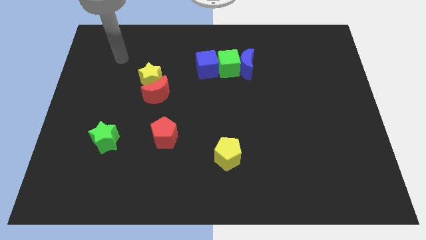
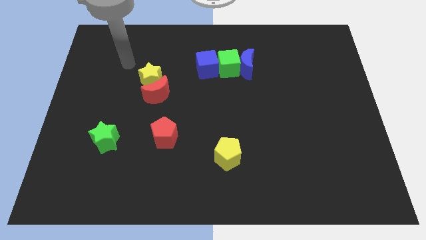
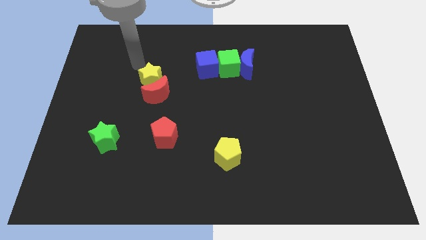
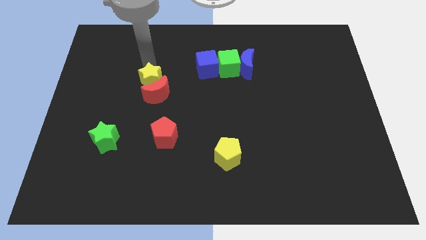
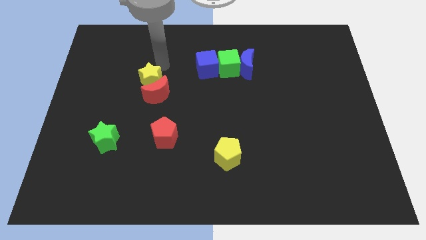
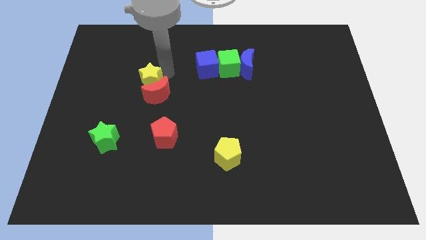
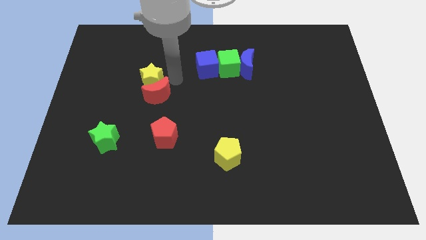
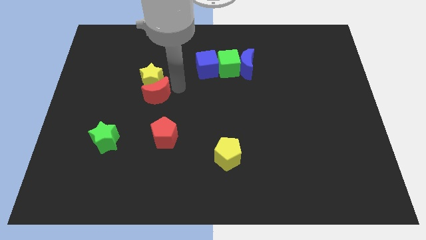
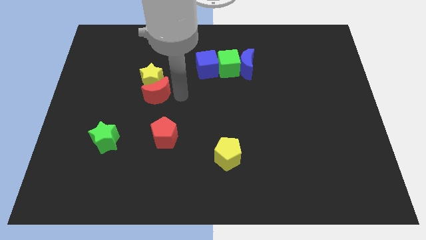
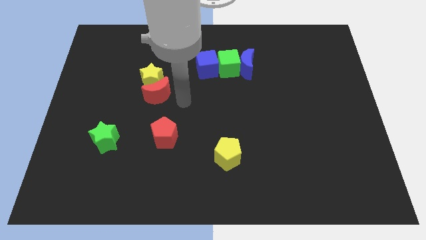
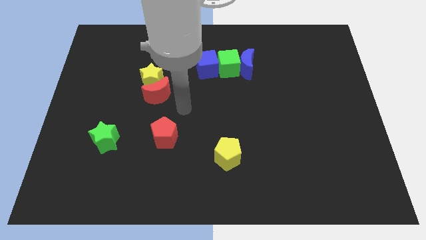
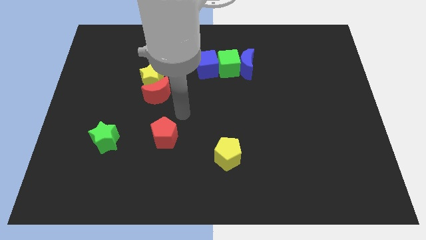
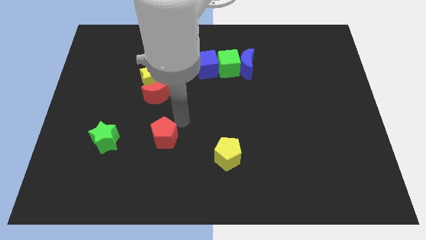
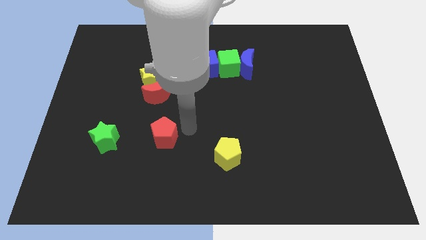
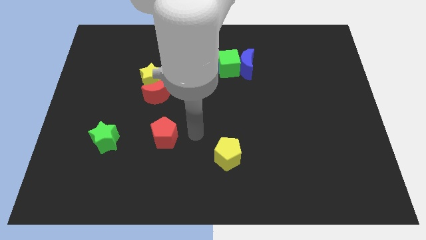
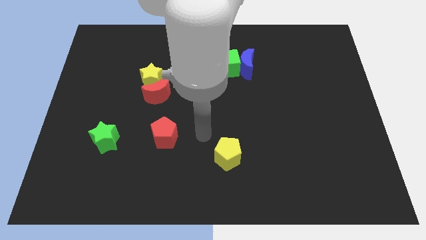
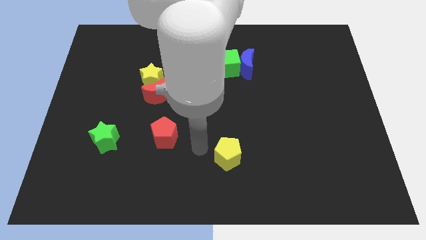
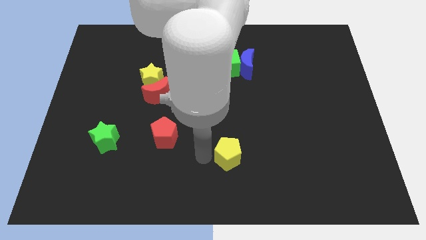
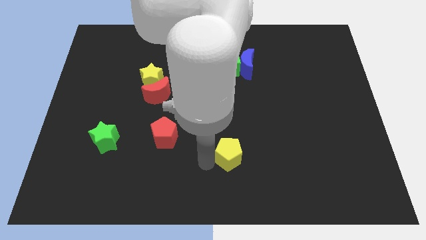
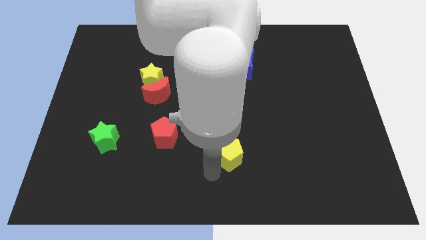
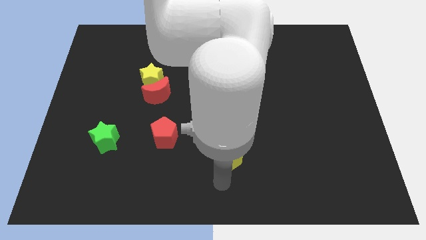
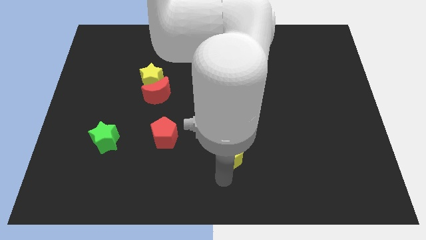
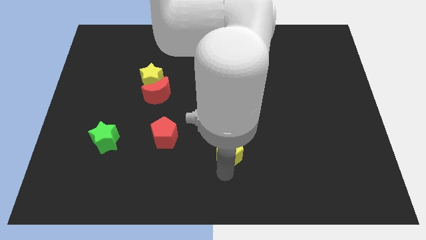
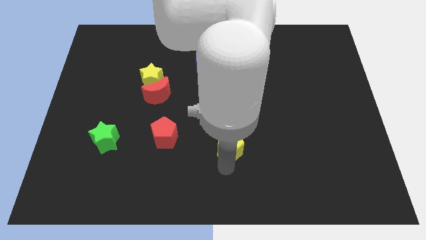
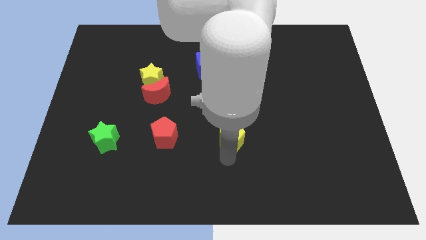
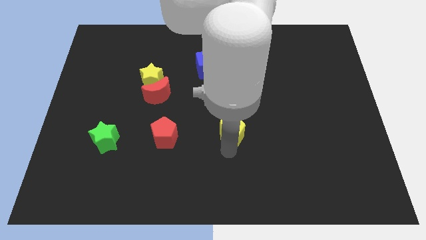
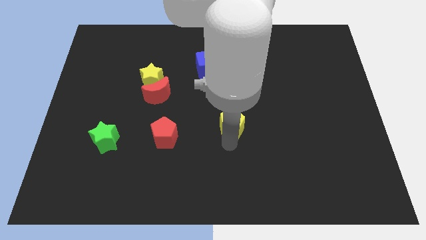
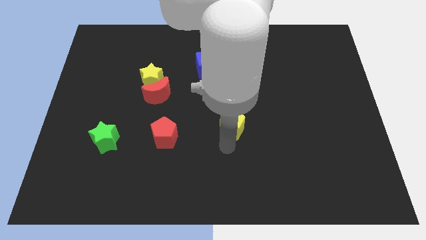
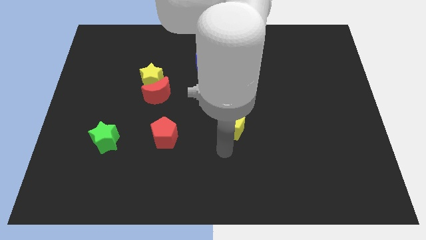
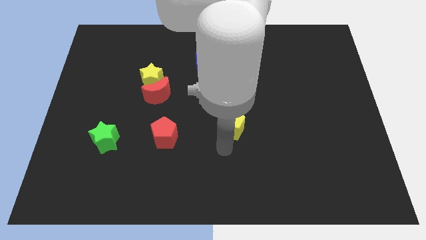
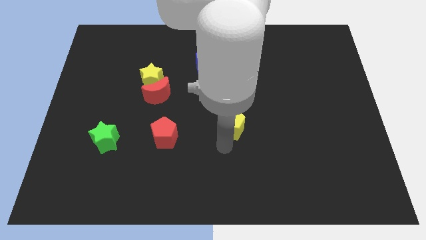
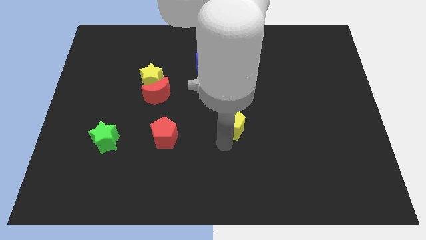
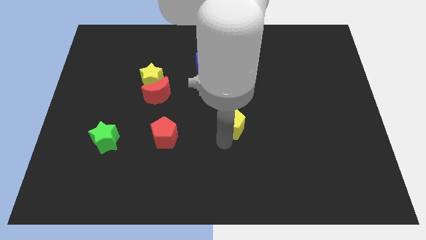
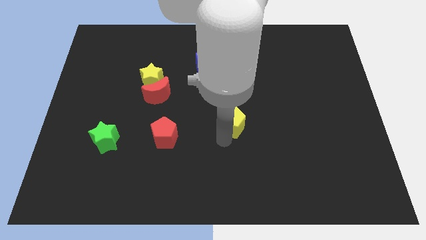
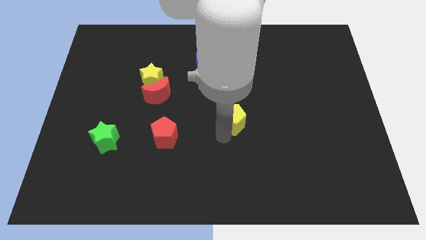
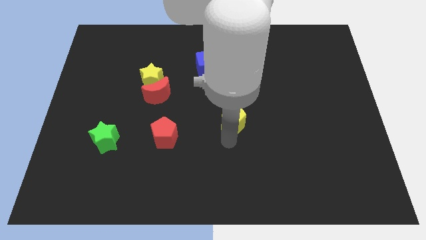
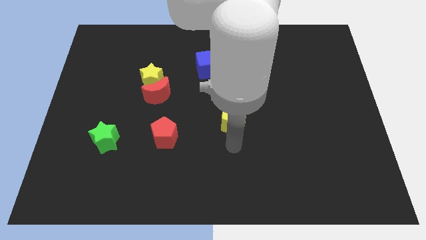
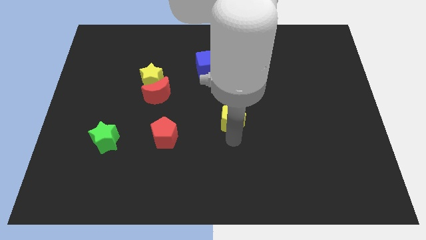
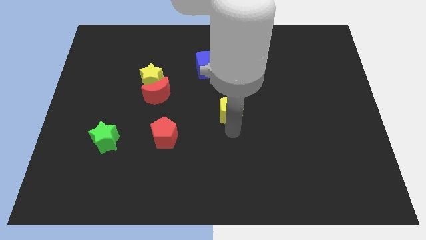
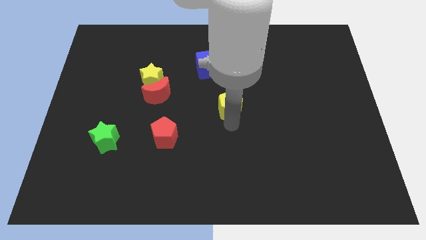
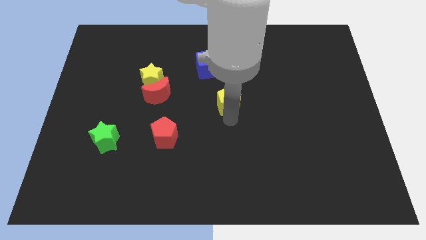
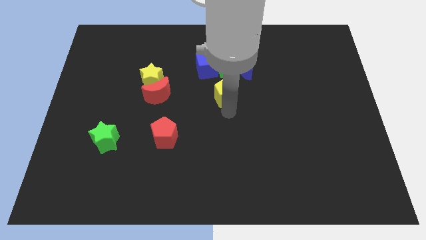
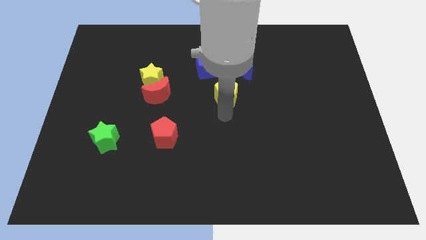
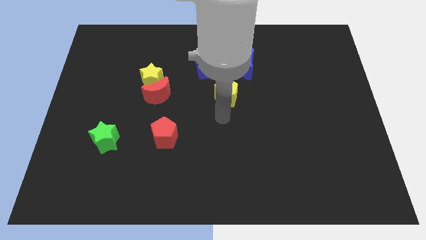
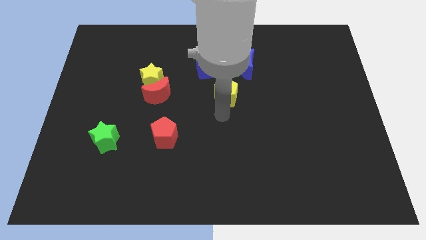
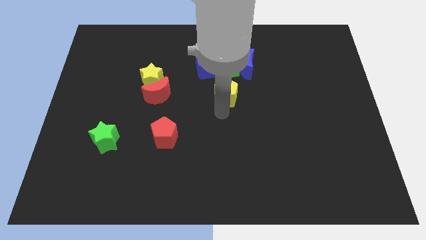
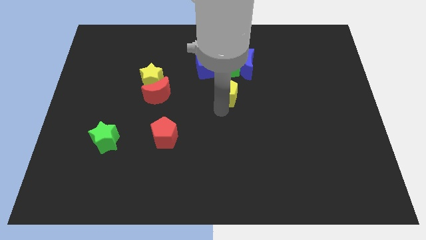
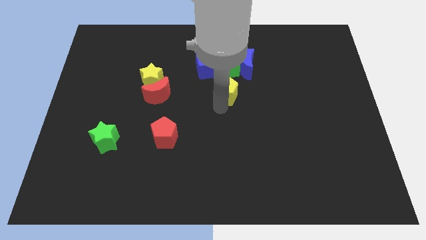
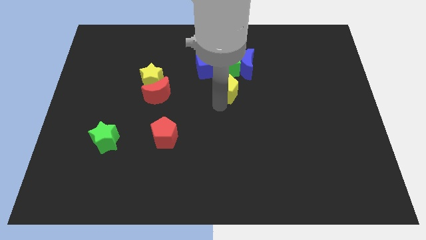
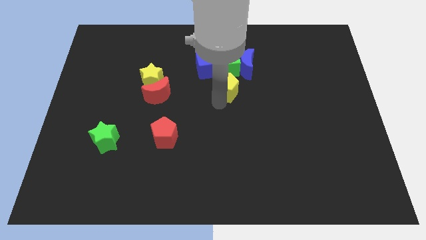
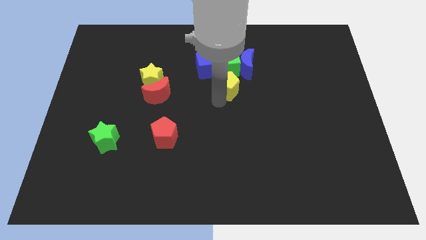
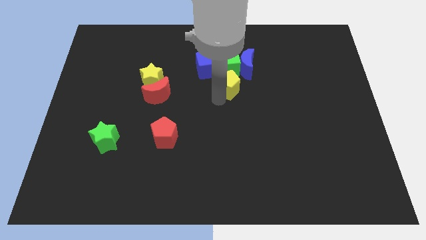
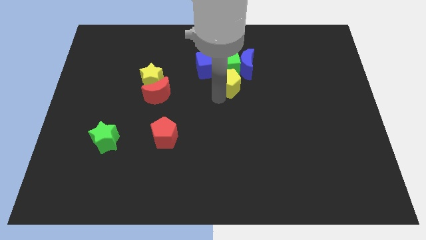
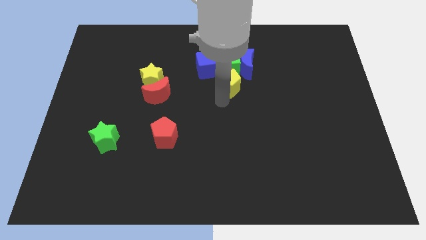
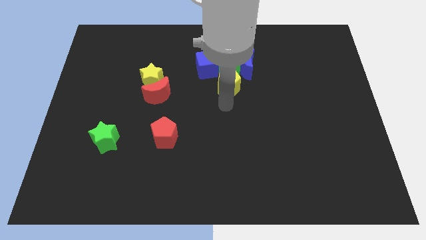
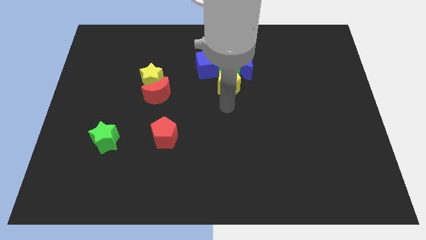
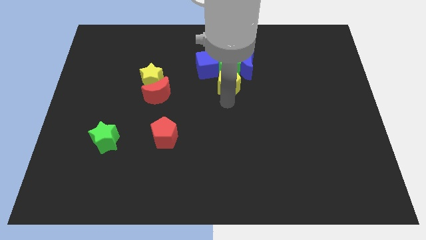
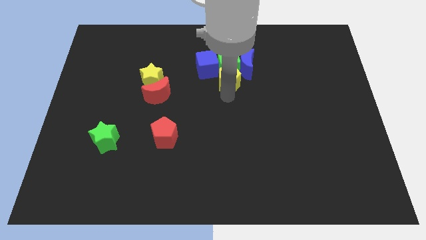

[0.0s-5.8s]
slide the yellow pentagon towards the green cube

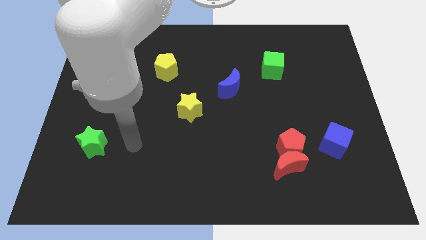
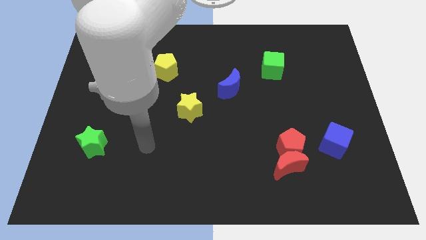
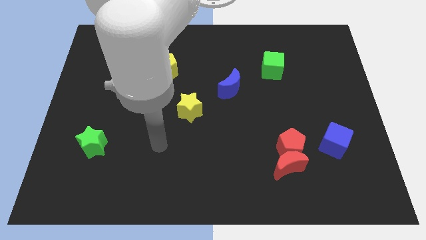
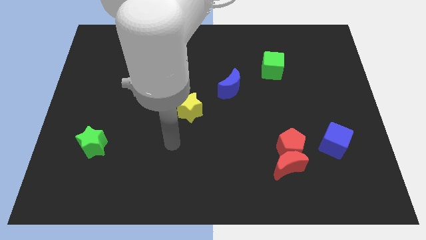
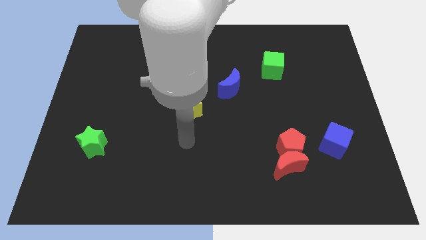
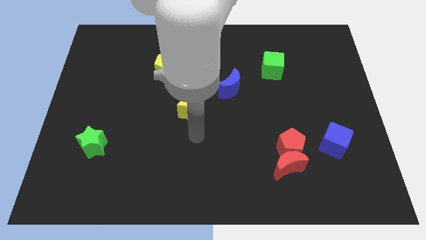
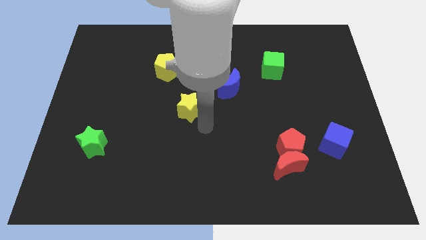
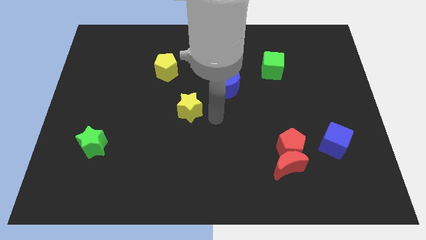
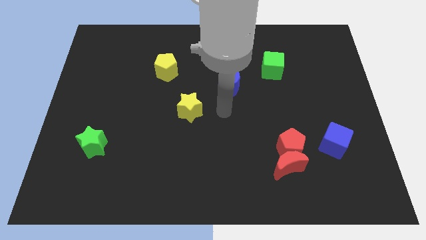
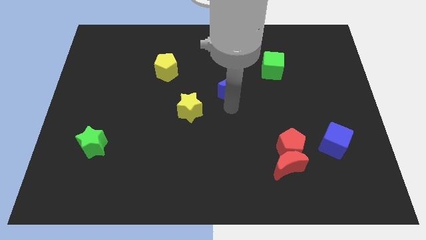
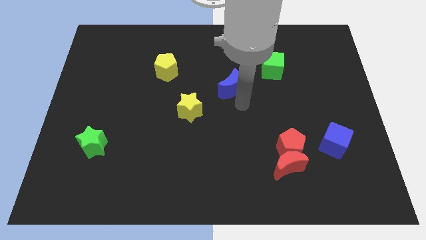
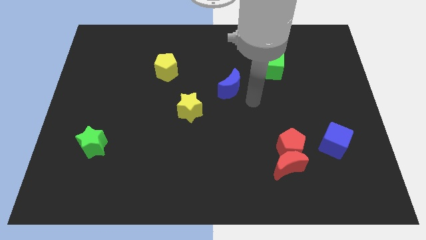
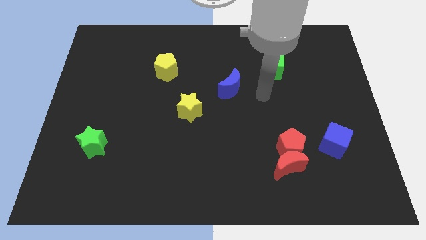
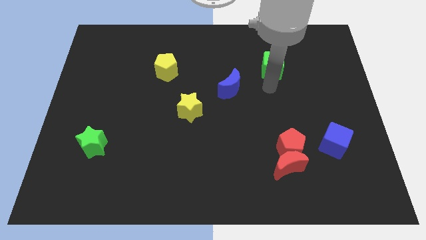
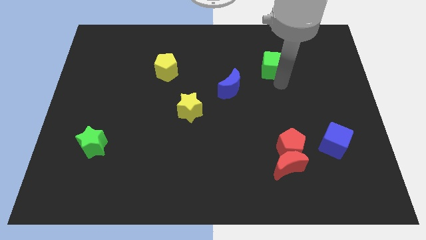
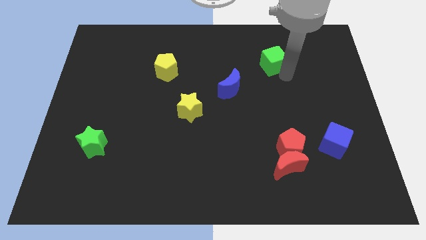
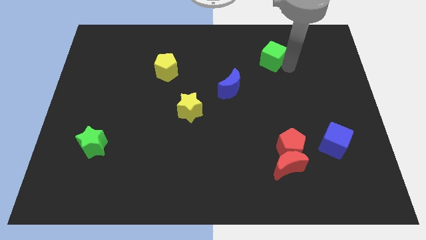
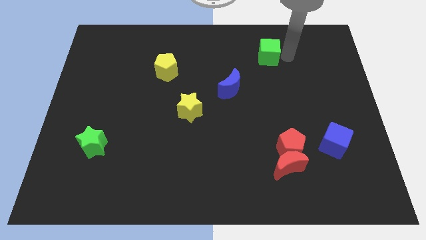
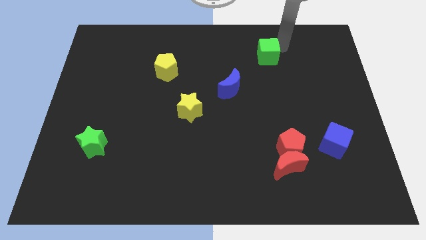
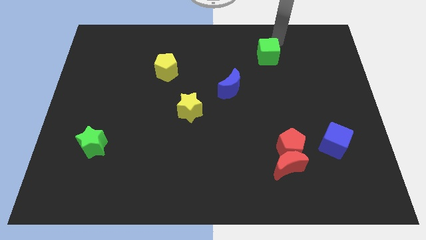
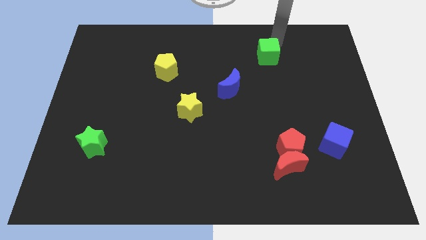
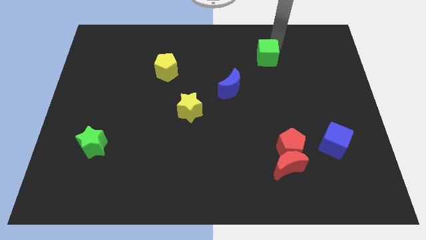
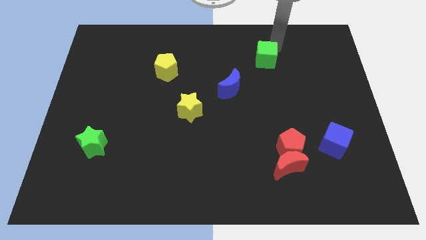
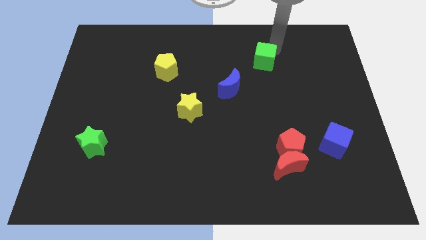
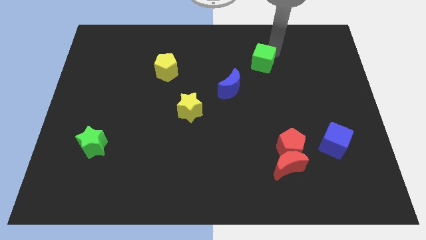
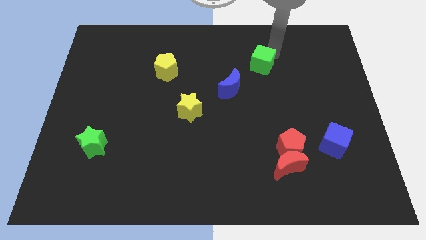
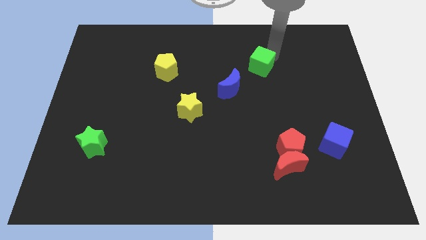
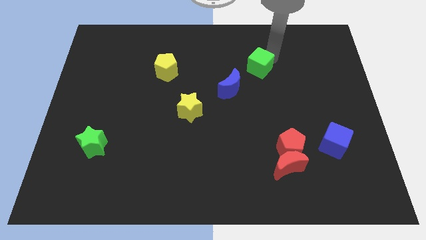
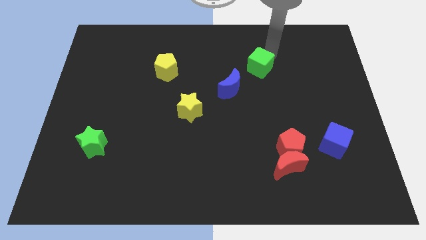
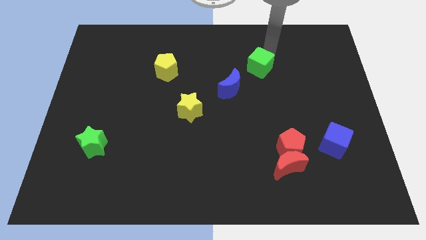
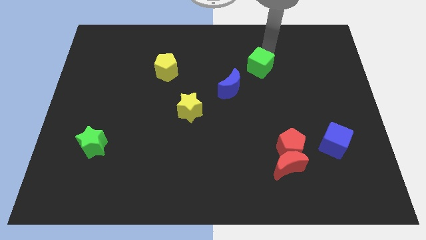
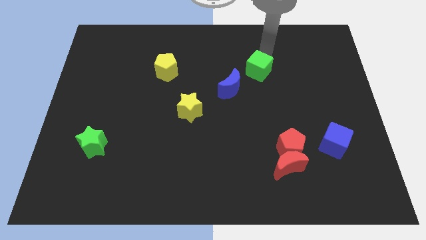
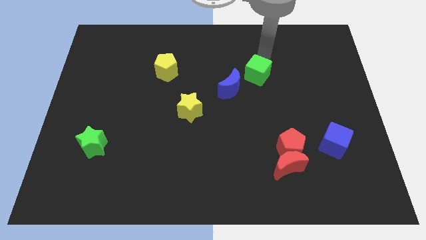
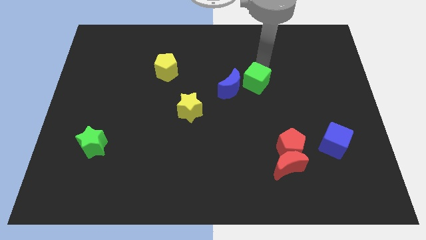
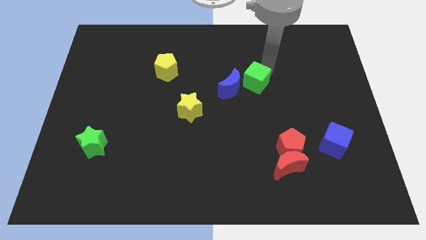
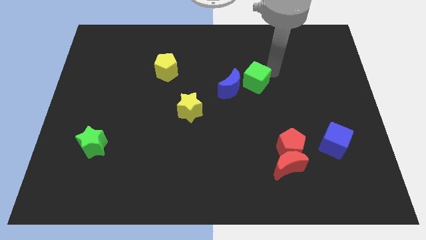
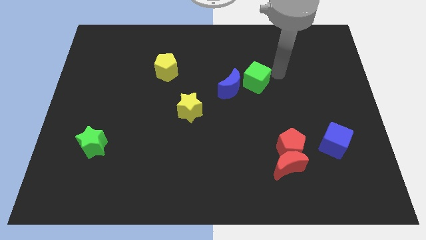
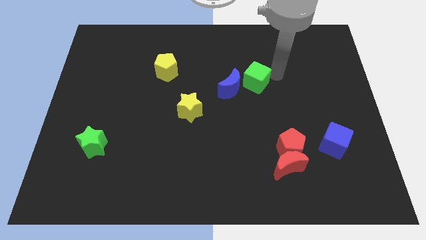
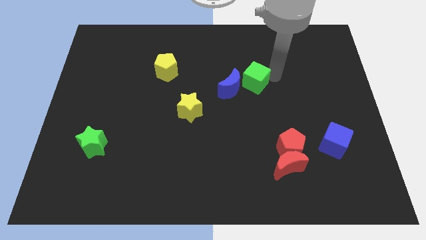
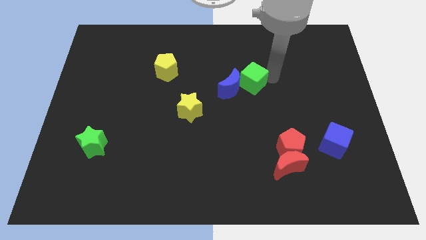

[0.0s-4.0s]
put the green cube towards the blue moon
